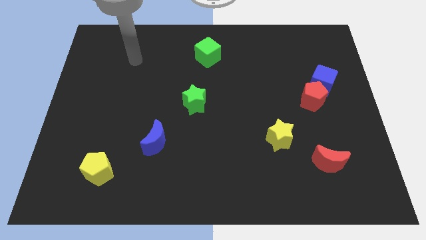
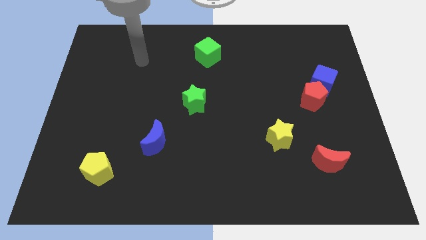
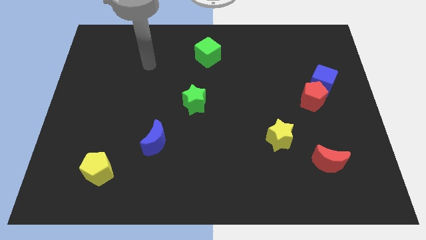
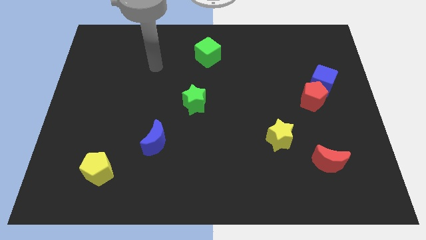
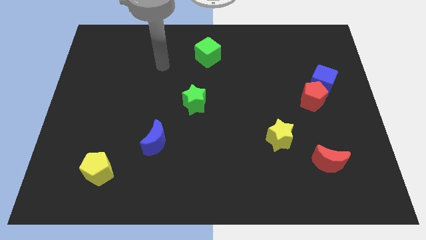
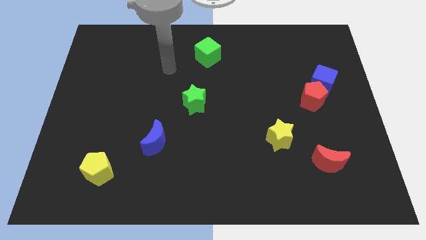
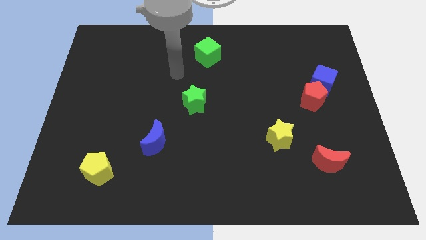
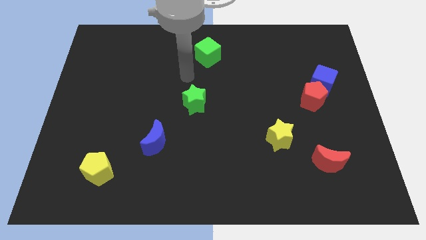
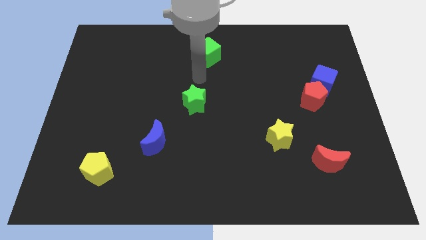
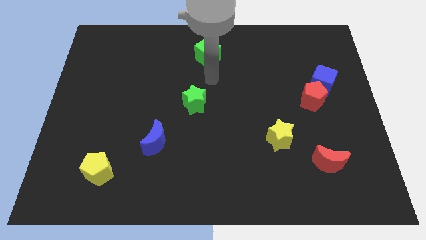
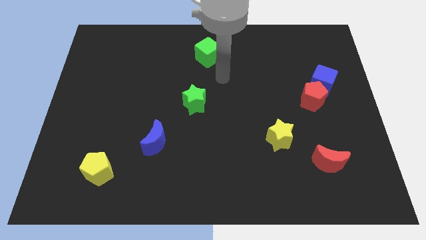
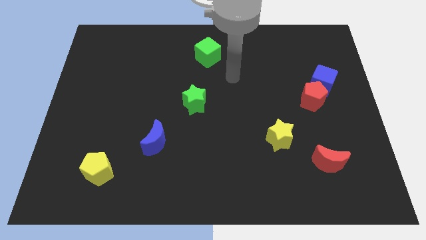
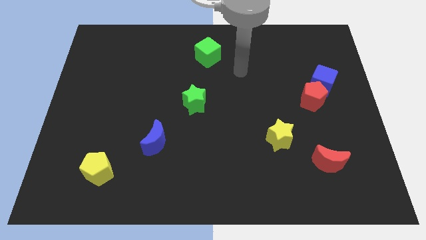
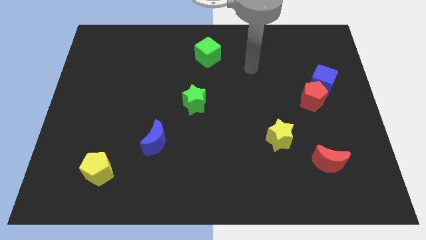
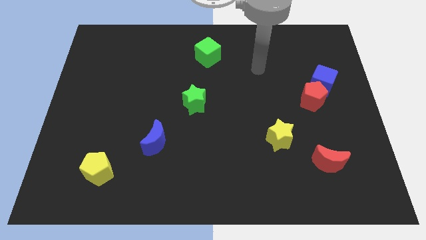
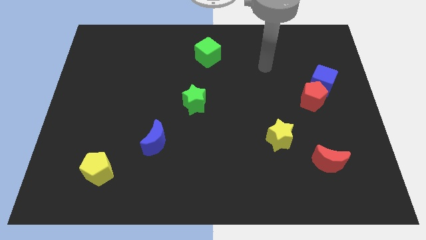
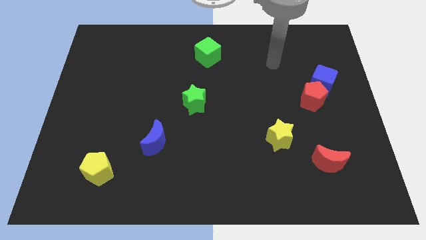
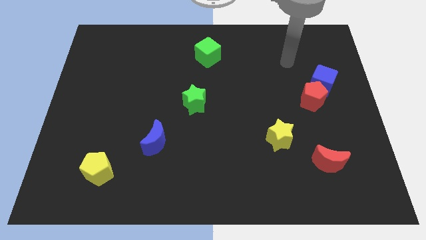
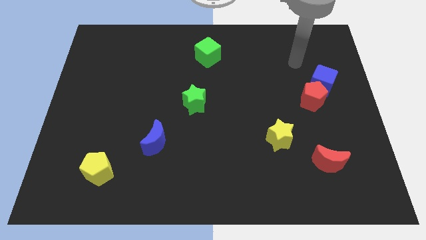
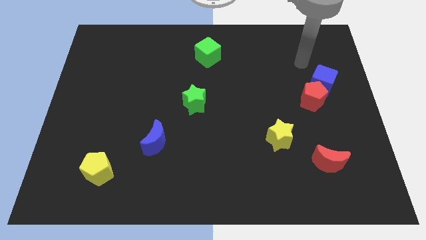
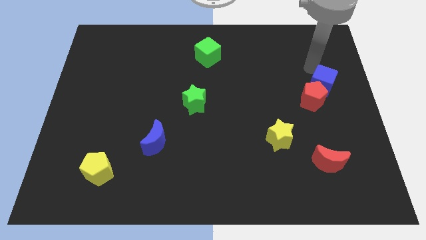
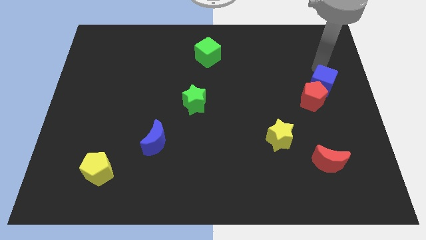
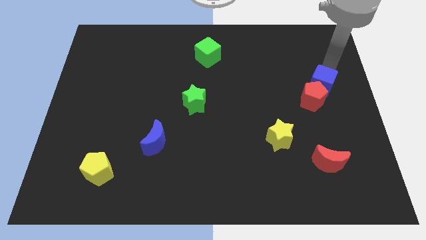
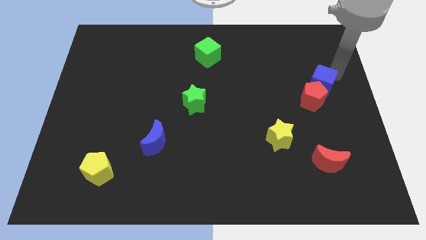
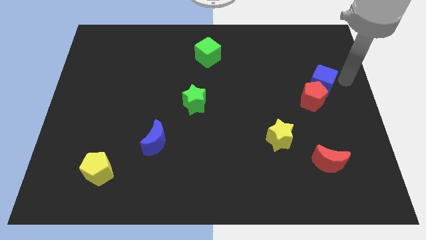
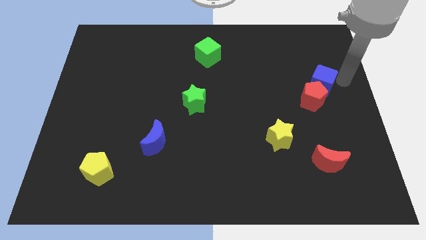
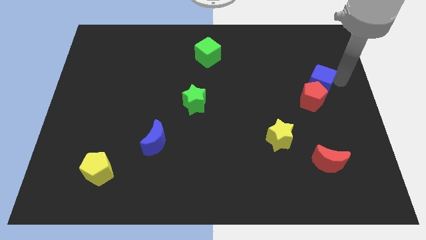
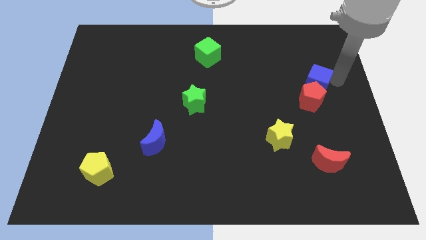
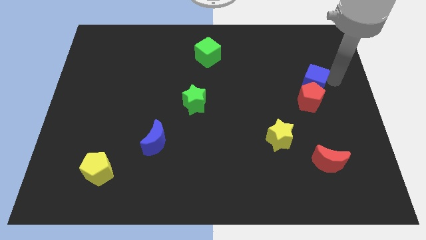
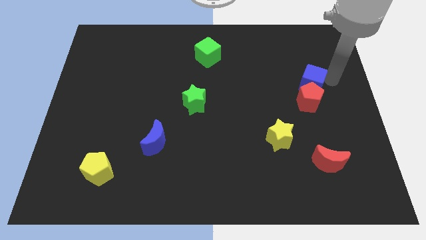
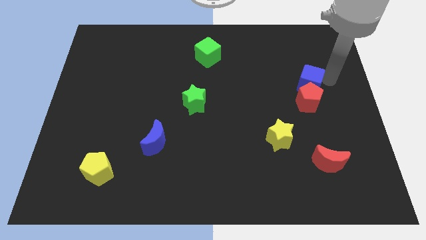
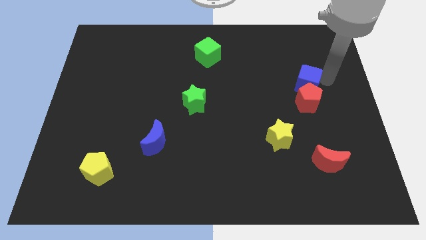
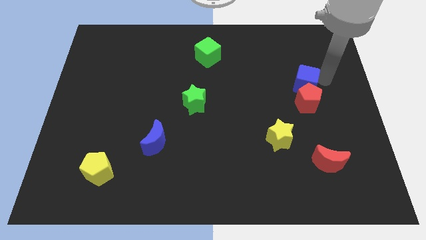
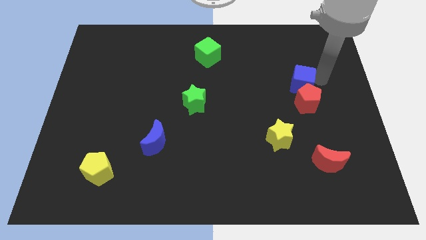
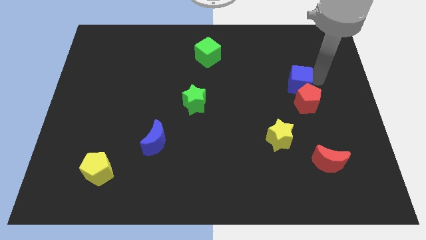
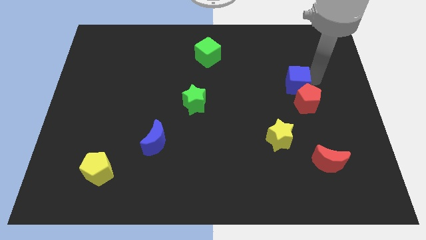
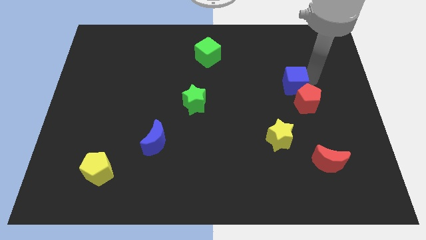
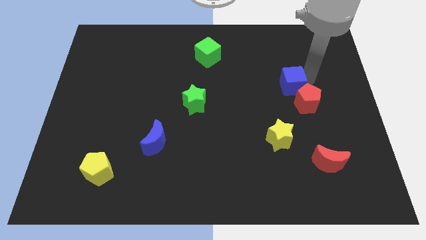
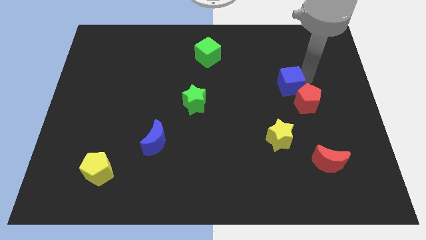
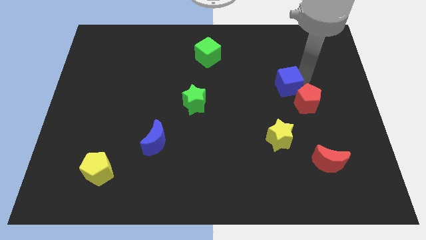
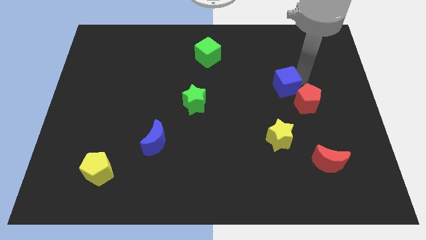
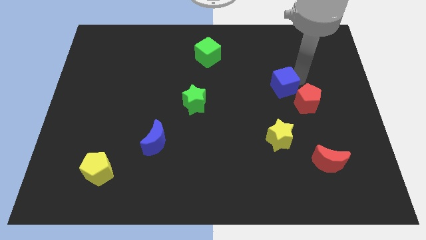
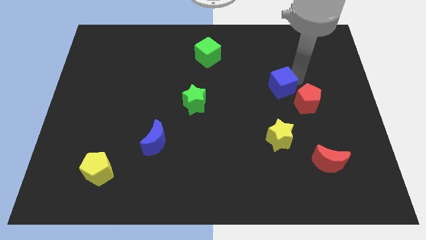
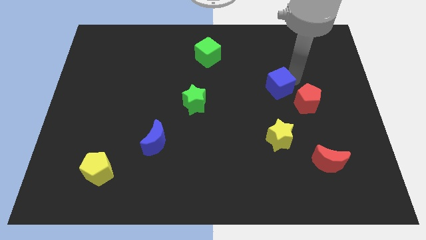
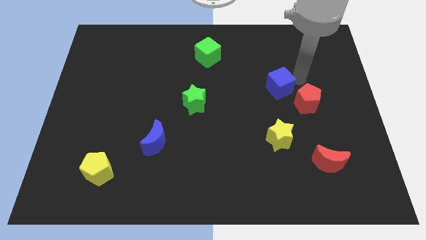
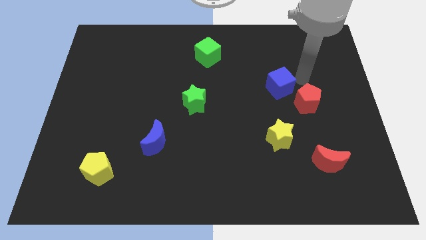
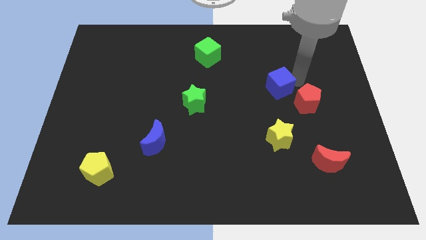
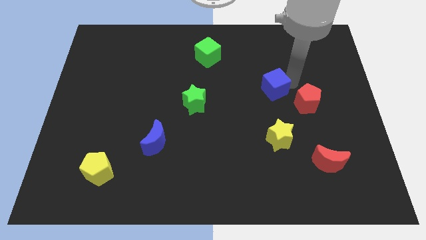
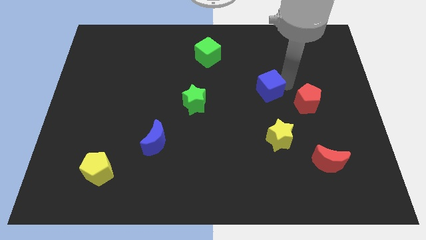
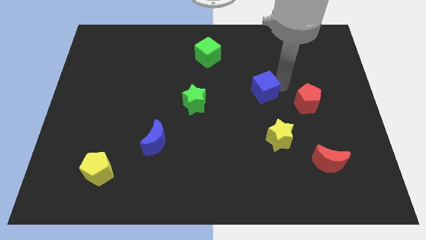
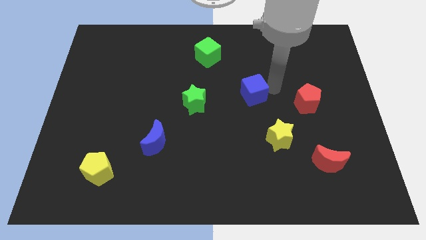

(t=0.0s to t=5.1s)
push the blue cube to the center of the board

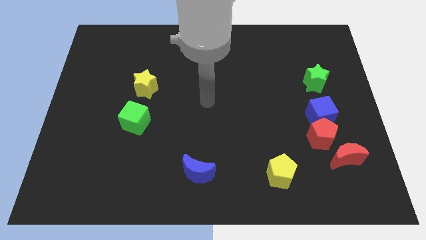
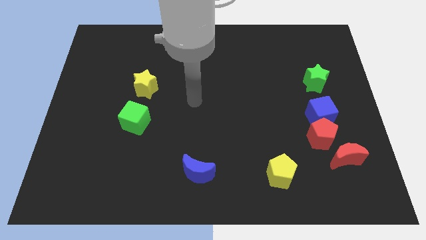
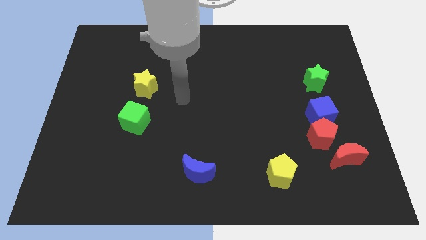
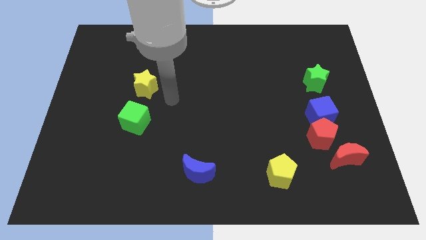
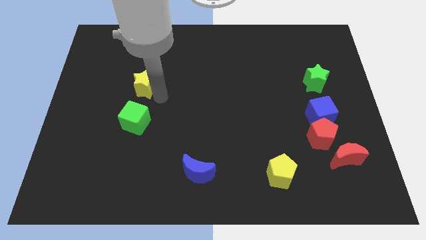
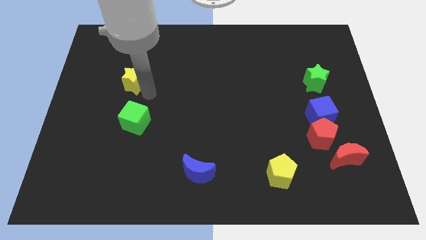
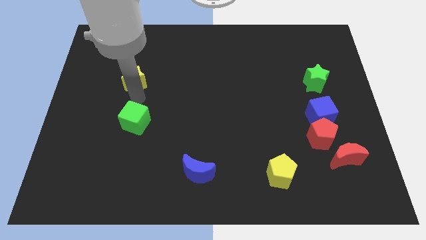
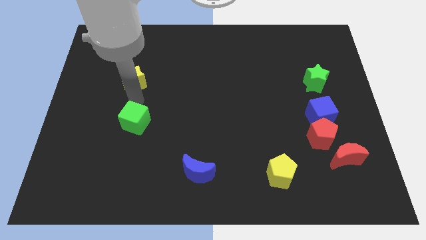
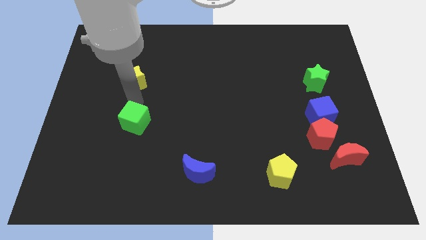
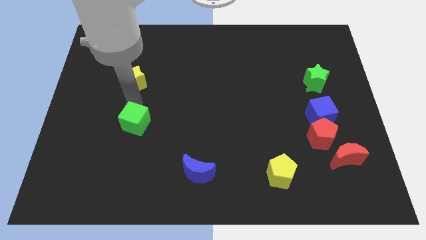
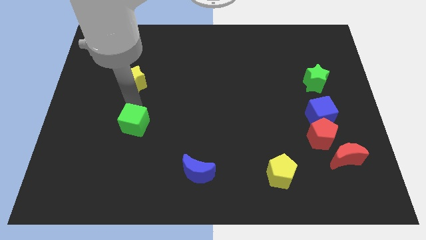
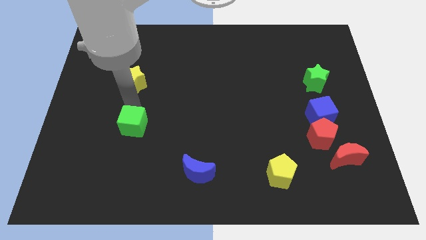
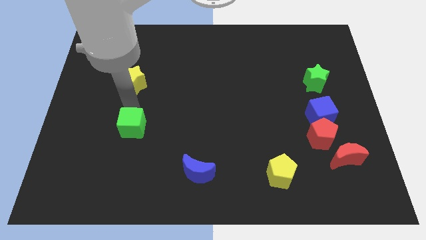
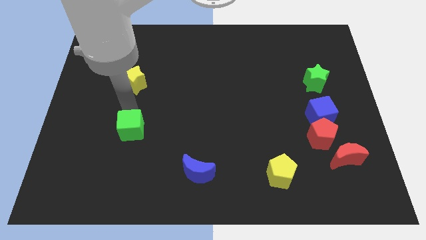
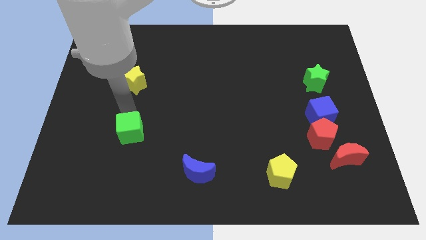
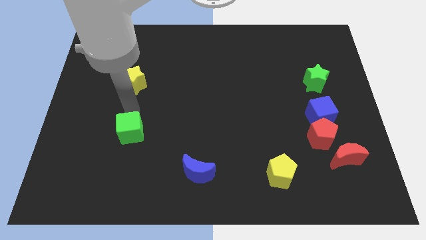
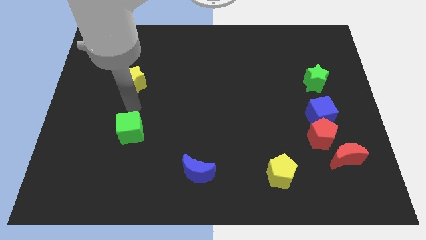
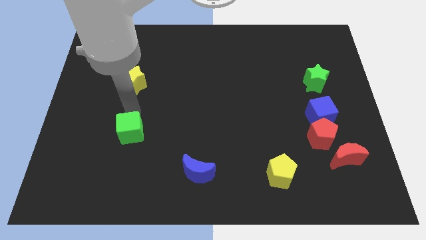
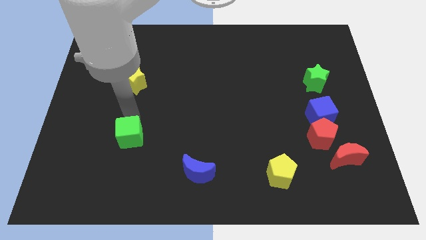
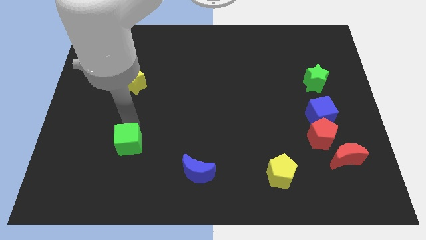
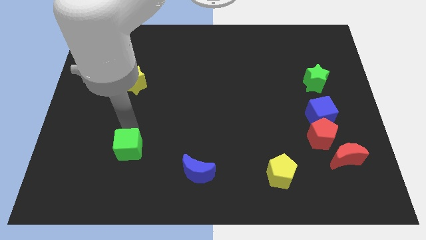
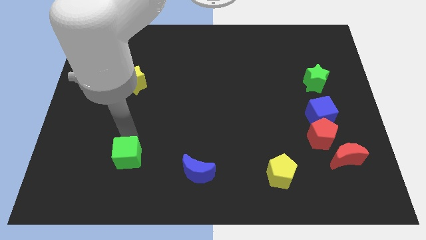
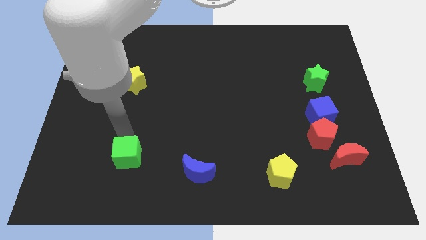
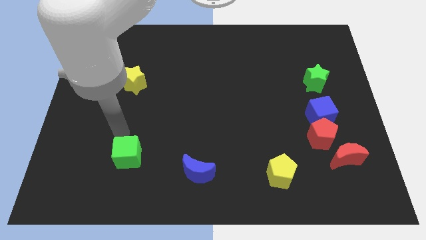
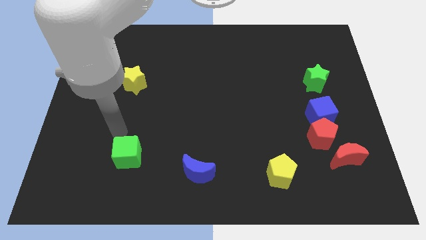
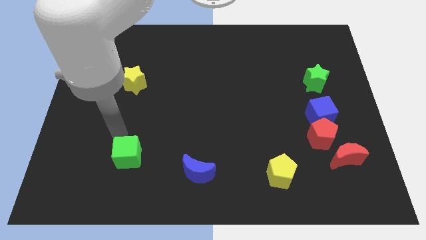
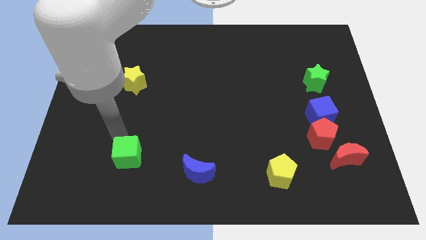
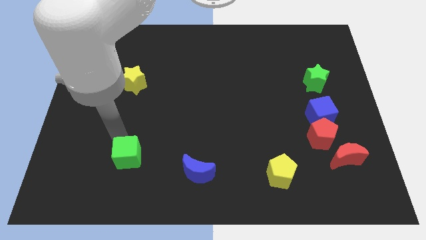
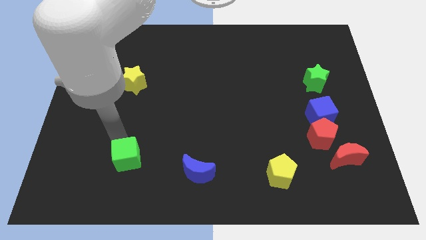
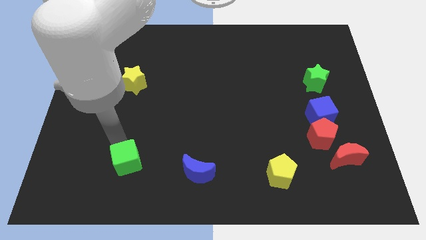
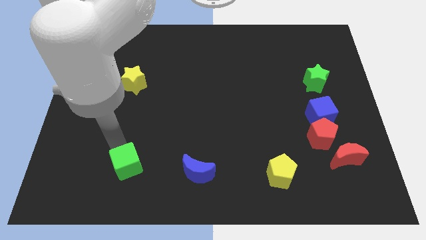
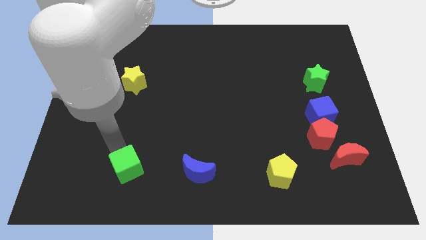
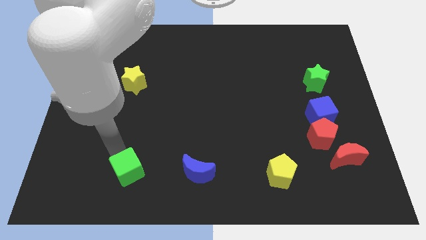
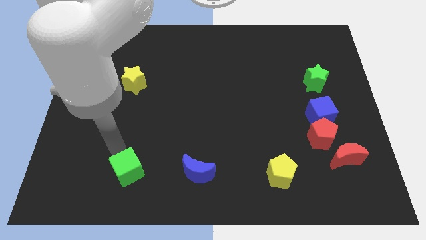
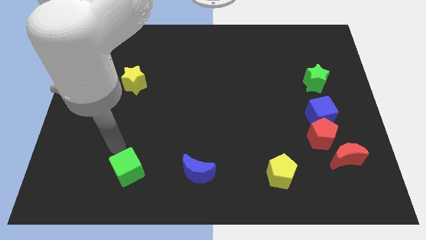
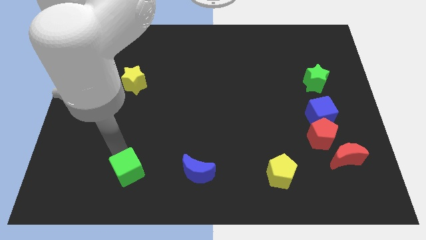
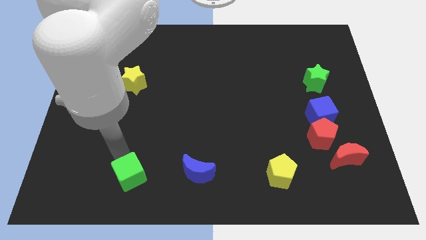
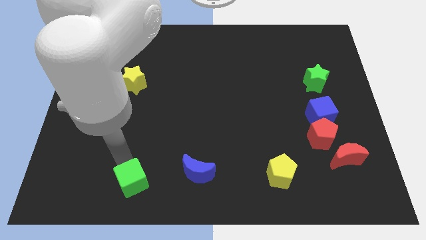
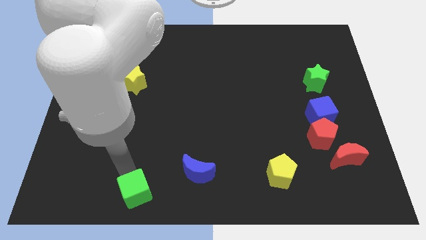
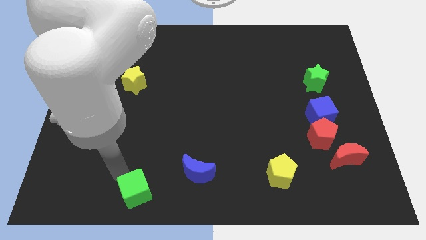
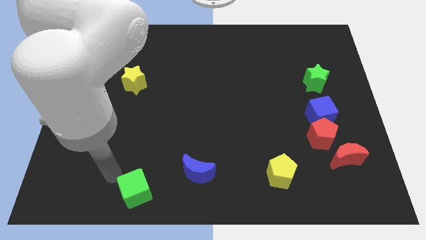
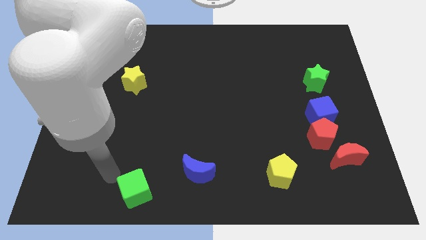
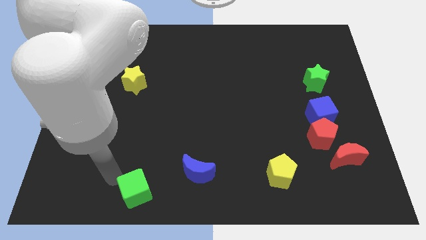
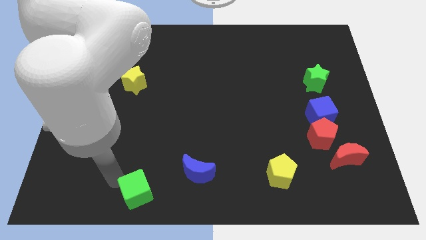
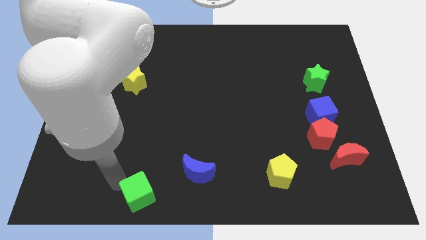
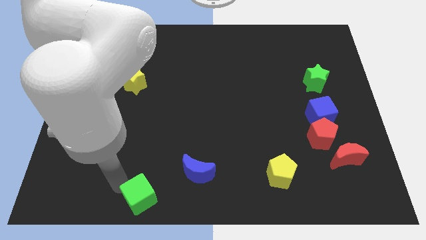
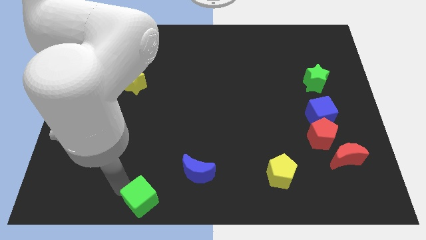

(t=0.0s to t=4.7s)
put the green cube to the bottom side
